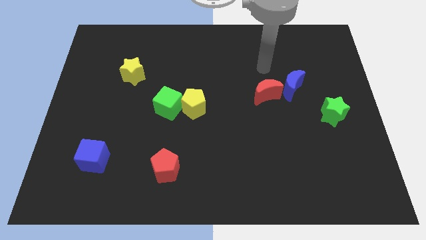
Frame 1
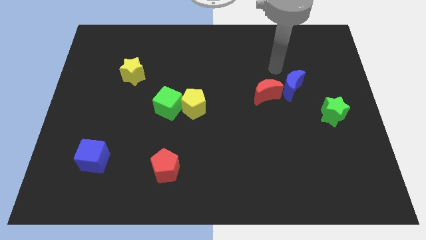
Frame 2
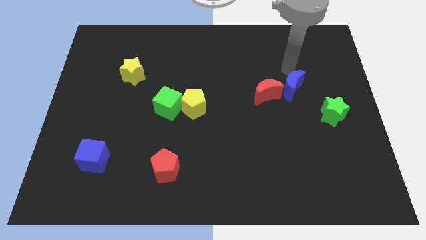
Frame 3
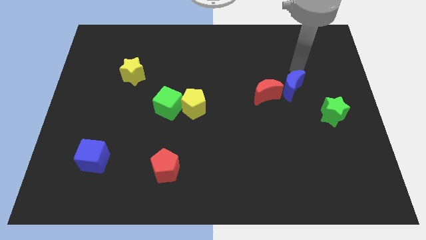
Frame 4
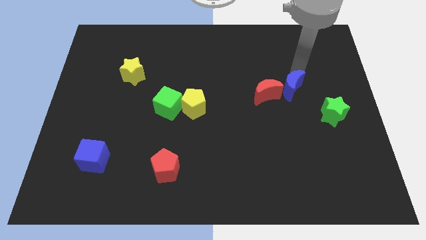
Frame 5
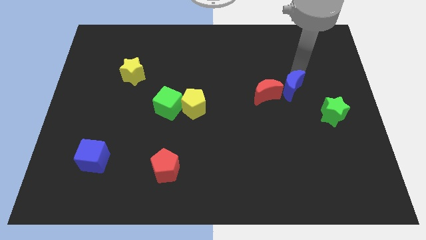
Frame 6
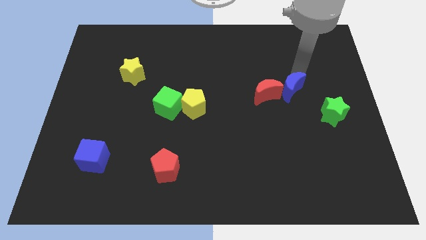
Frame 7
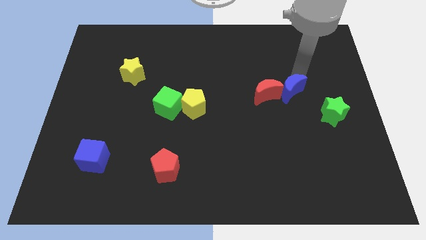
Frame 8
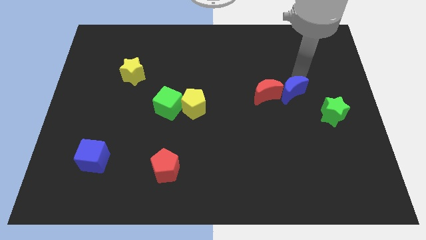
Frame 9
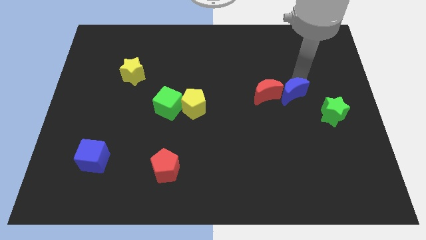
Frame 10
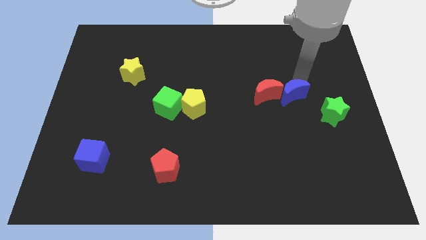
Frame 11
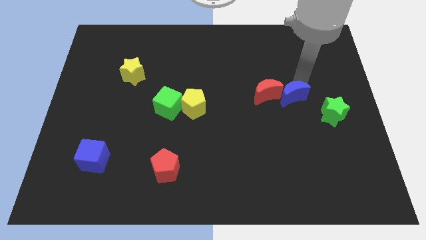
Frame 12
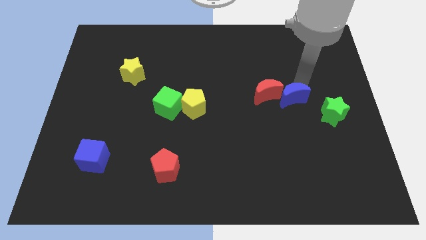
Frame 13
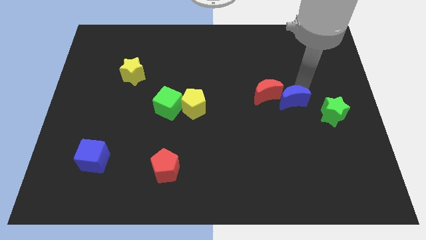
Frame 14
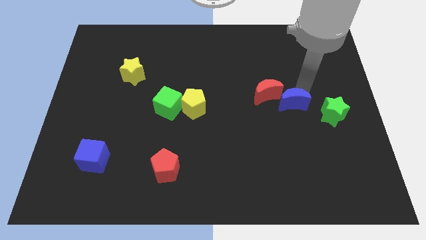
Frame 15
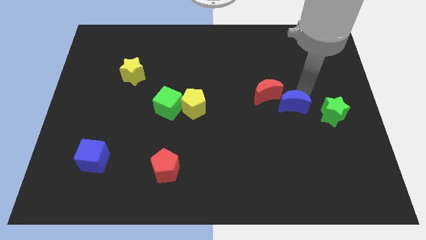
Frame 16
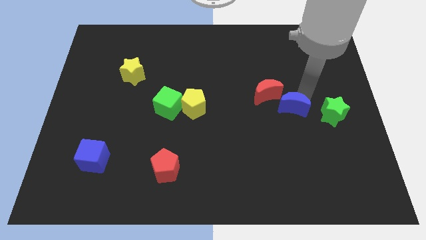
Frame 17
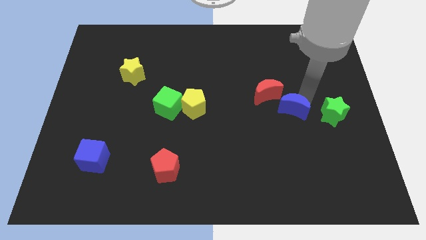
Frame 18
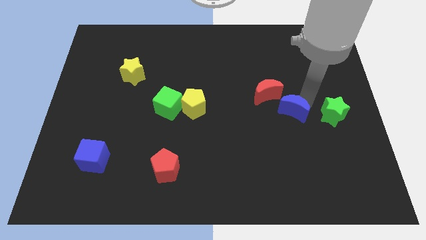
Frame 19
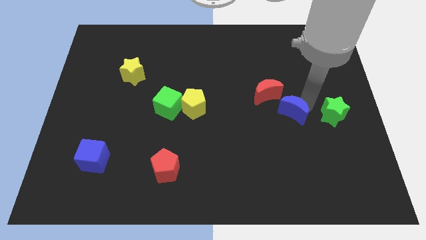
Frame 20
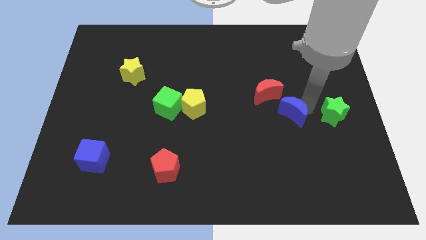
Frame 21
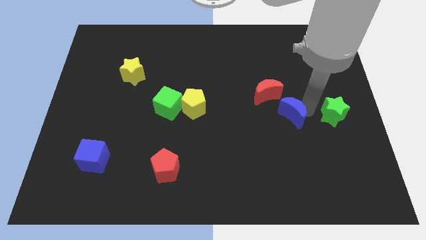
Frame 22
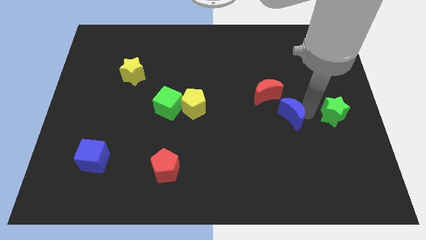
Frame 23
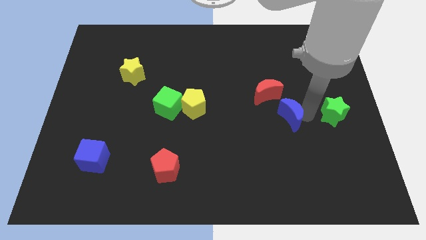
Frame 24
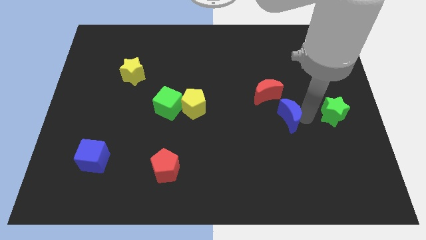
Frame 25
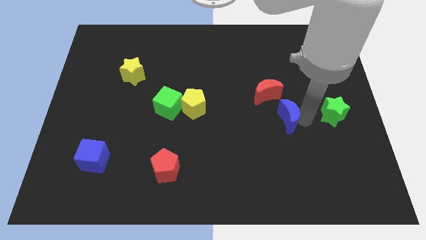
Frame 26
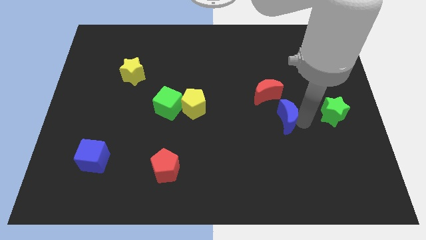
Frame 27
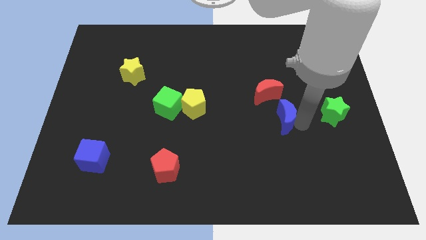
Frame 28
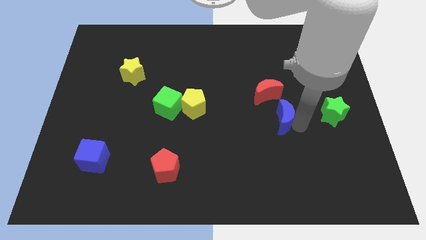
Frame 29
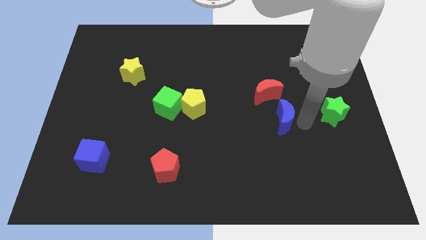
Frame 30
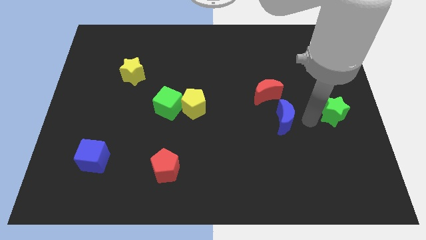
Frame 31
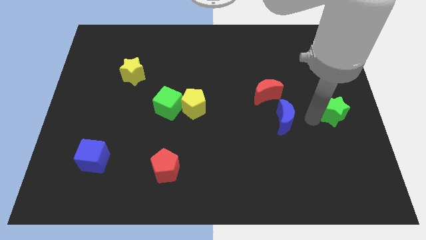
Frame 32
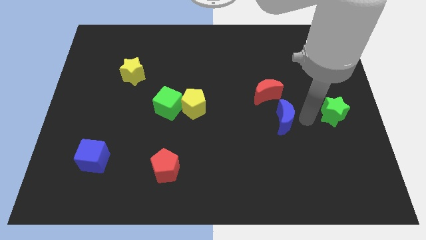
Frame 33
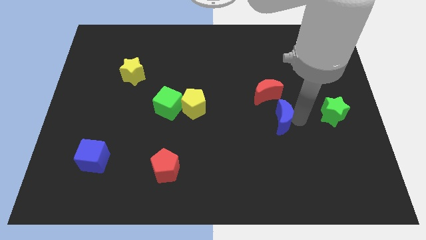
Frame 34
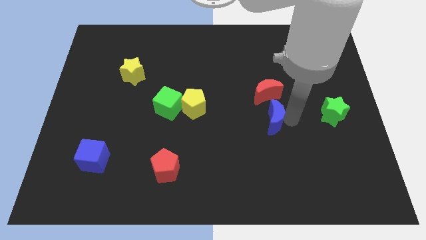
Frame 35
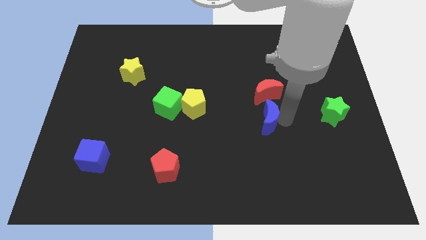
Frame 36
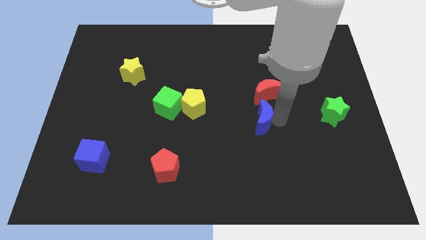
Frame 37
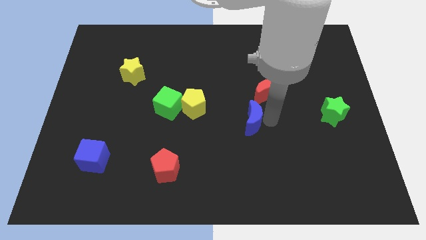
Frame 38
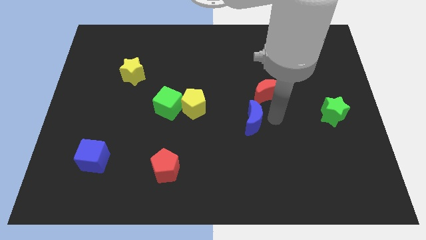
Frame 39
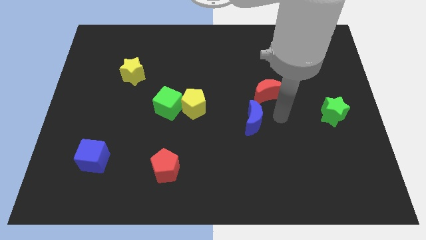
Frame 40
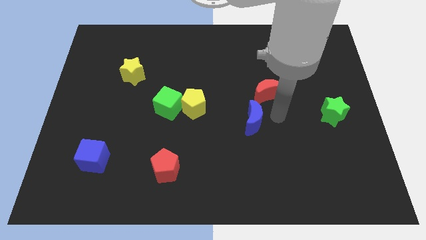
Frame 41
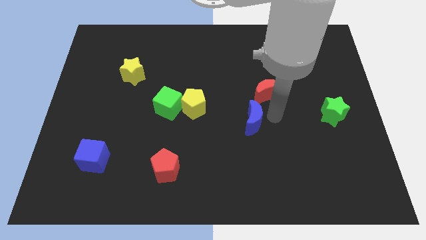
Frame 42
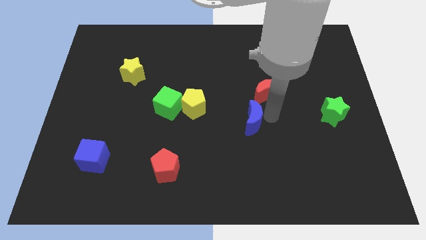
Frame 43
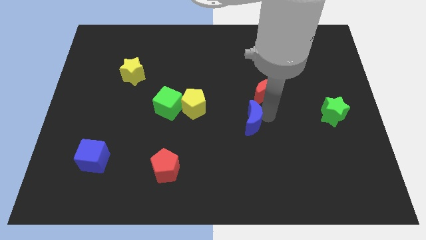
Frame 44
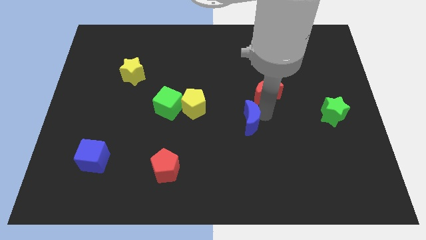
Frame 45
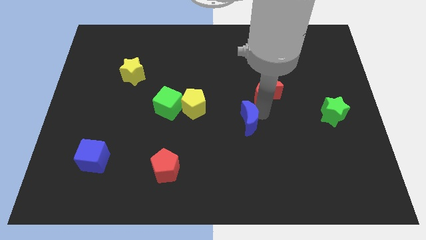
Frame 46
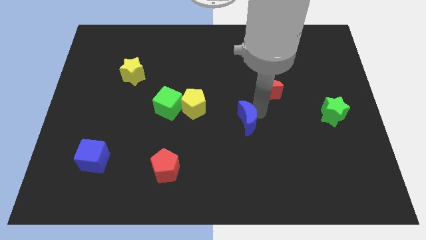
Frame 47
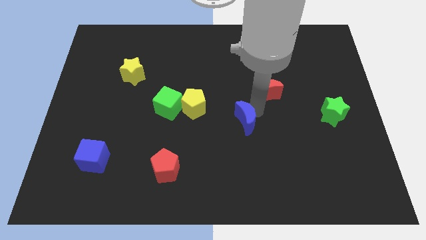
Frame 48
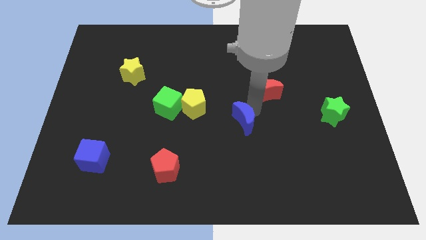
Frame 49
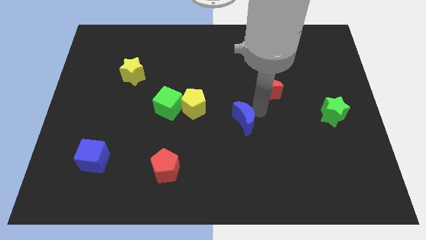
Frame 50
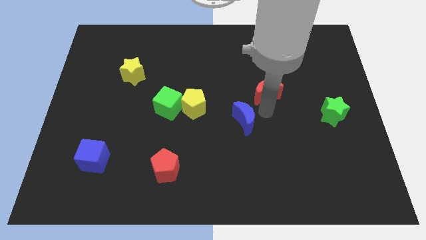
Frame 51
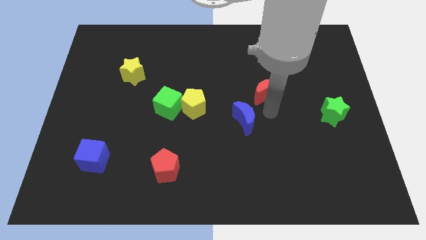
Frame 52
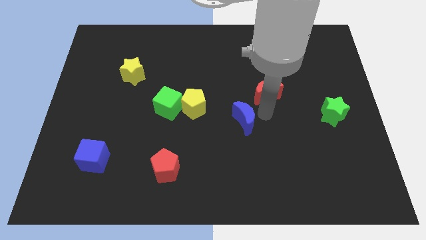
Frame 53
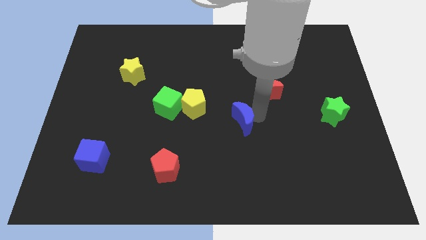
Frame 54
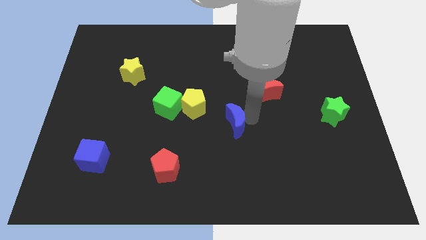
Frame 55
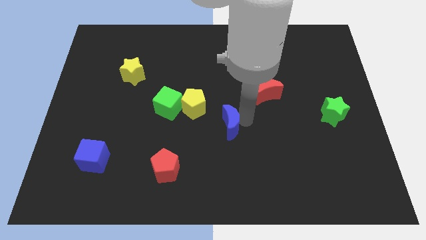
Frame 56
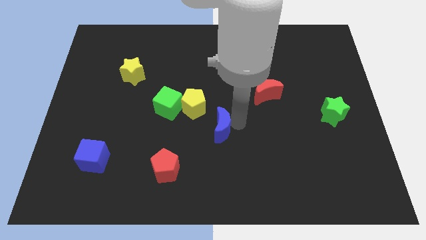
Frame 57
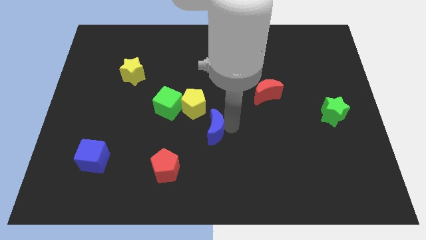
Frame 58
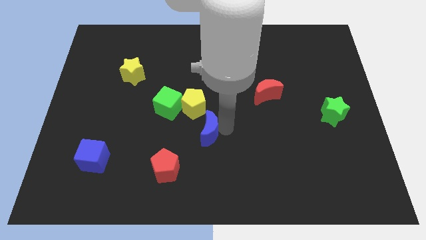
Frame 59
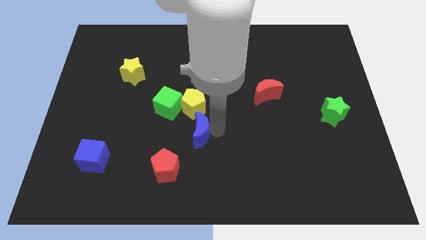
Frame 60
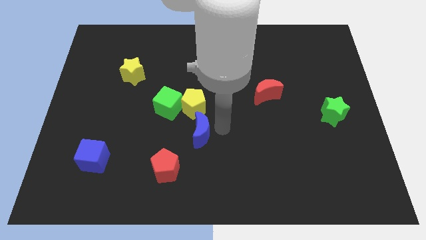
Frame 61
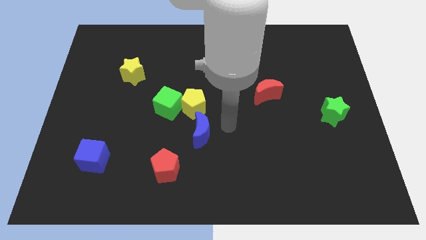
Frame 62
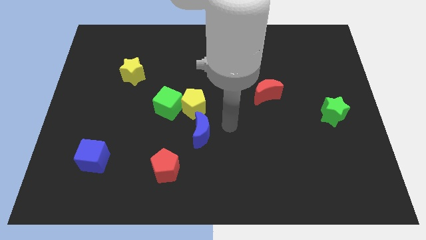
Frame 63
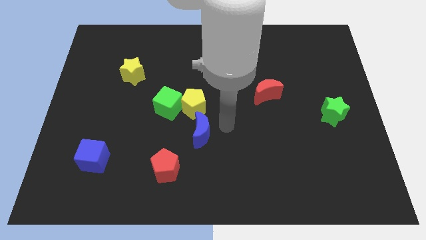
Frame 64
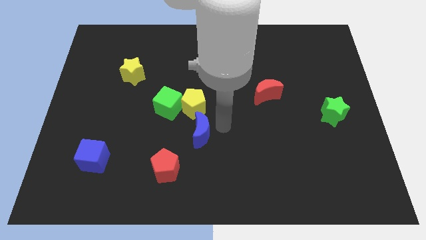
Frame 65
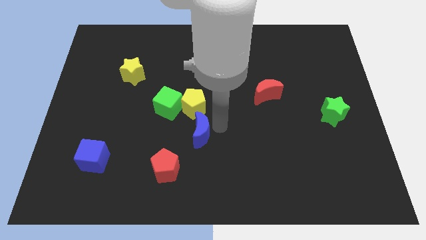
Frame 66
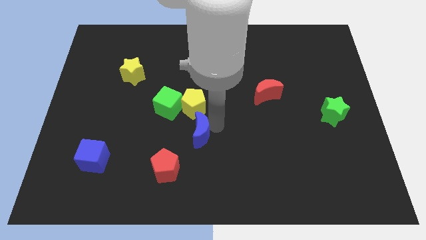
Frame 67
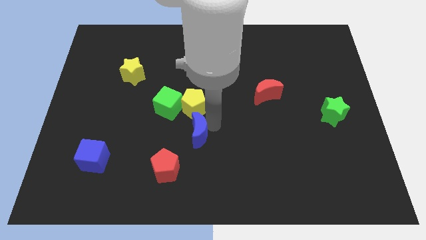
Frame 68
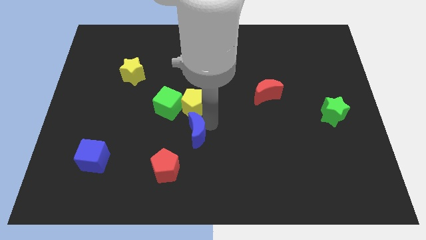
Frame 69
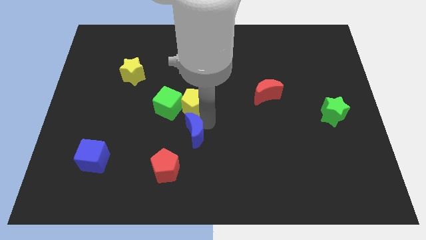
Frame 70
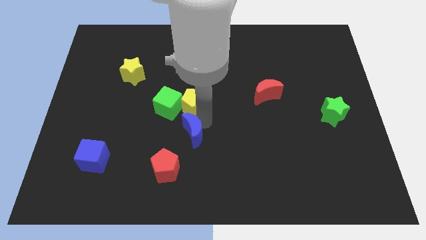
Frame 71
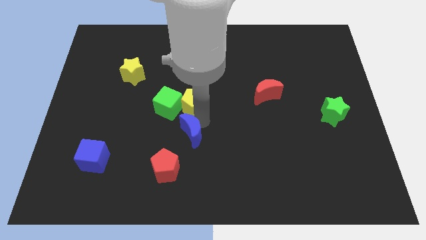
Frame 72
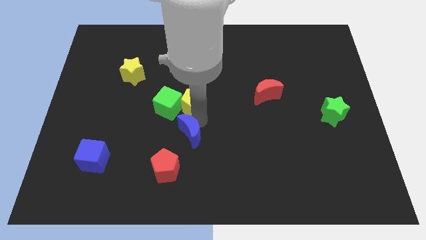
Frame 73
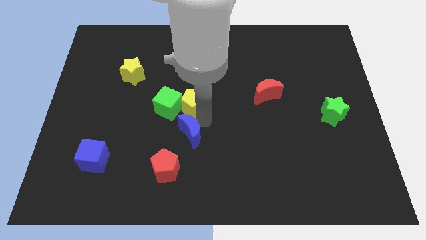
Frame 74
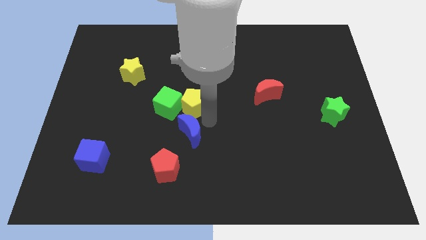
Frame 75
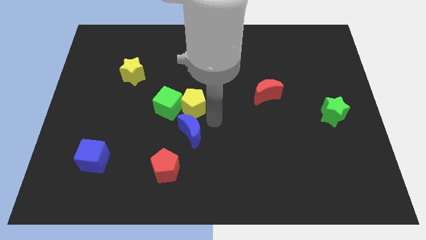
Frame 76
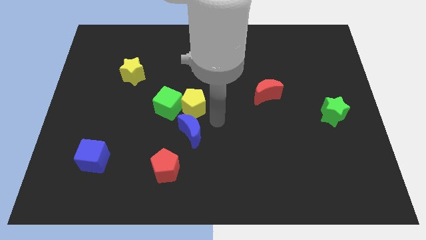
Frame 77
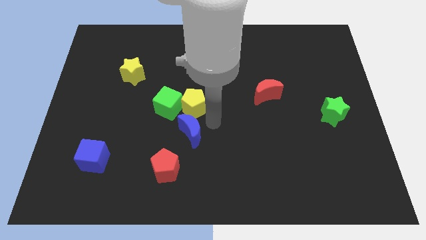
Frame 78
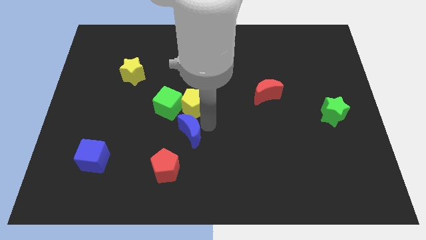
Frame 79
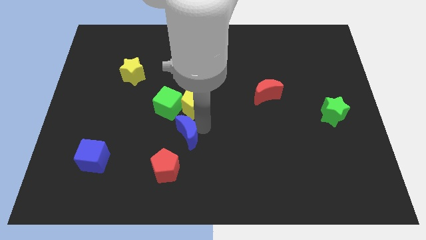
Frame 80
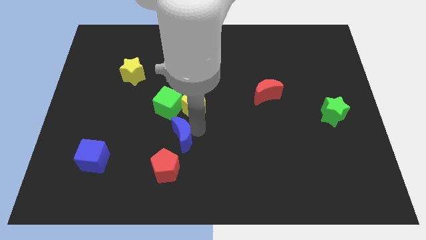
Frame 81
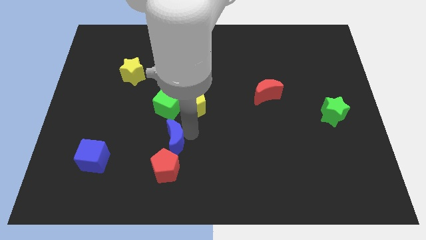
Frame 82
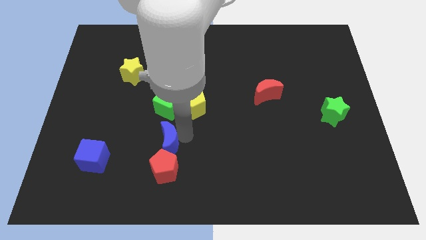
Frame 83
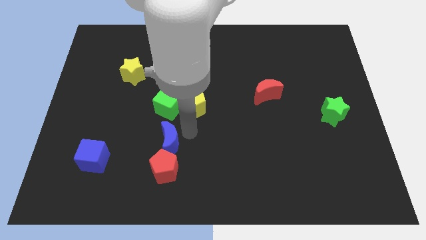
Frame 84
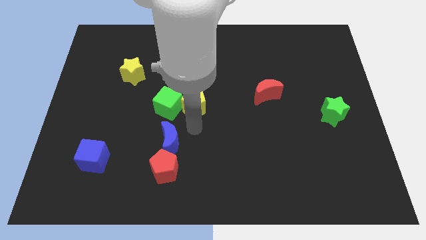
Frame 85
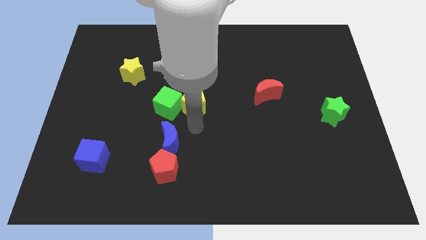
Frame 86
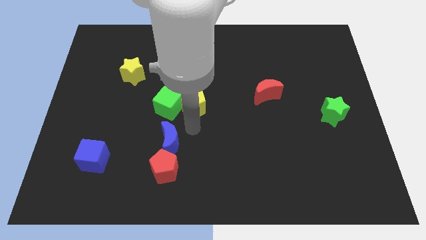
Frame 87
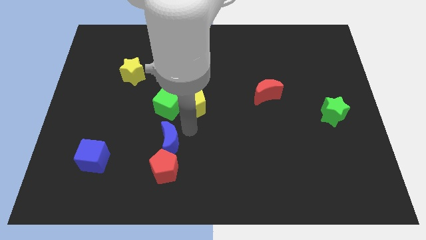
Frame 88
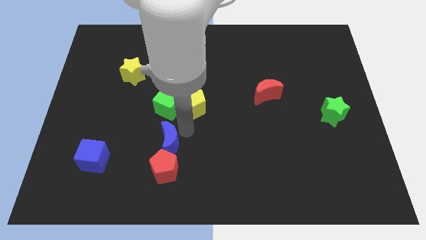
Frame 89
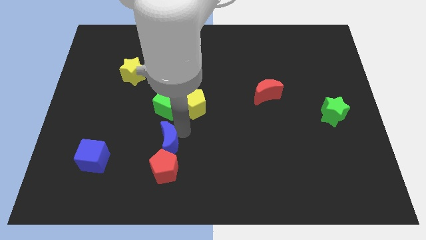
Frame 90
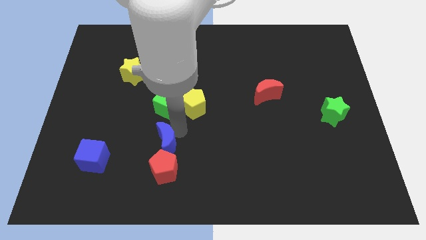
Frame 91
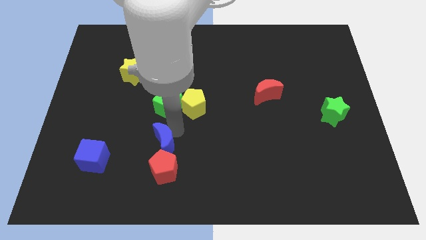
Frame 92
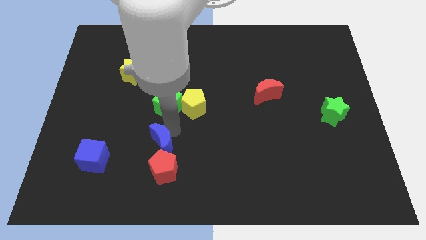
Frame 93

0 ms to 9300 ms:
push the blue moon to the right of the blue cube
